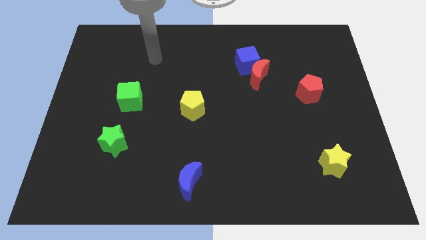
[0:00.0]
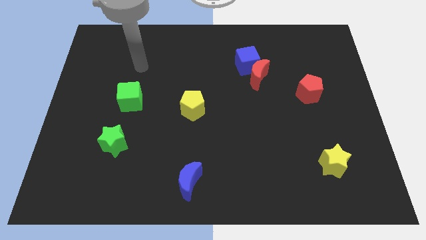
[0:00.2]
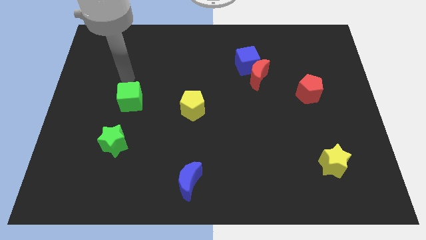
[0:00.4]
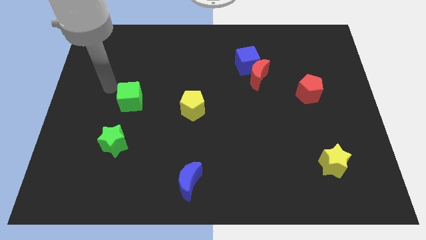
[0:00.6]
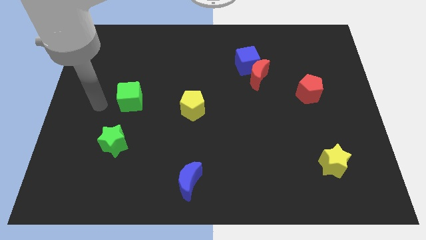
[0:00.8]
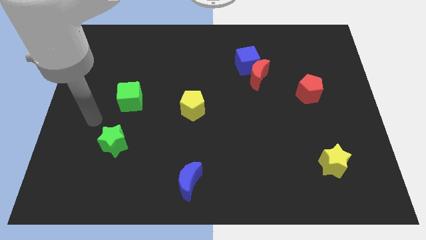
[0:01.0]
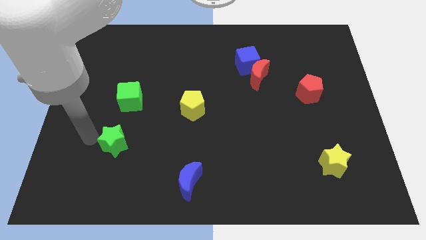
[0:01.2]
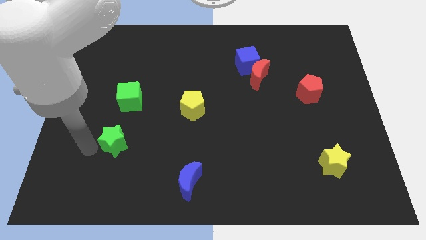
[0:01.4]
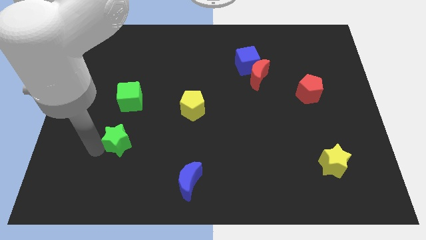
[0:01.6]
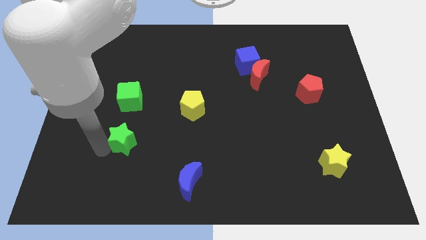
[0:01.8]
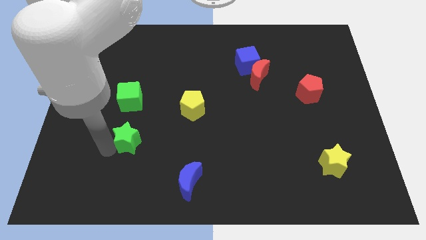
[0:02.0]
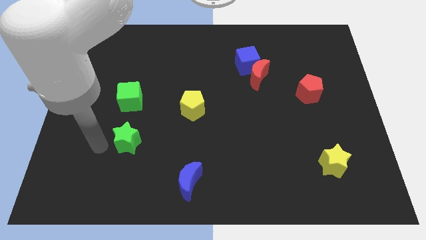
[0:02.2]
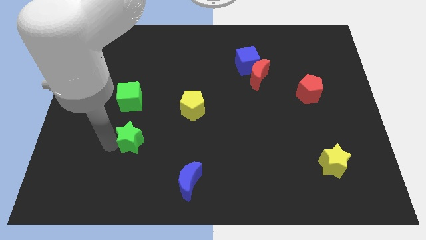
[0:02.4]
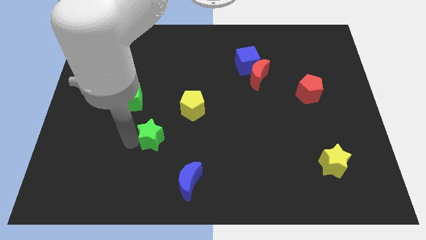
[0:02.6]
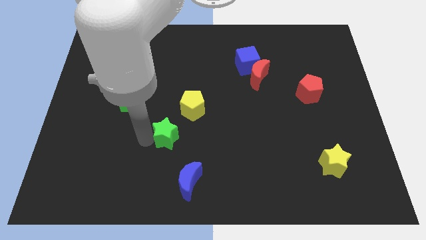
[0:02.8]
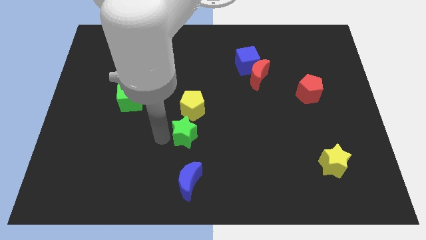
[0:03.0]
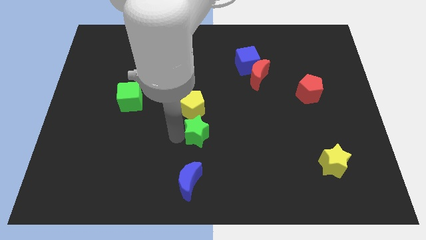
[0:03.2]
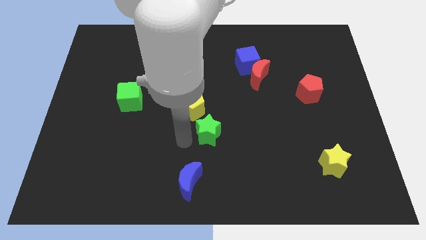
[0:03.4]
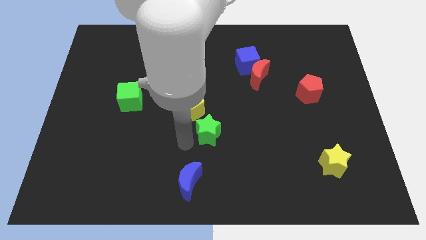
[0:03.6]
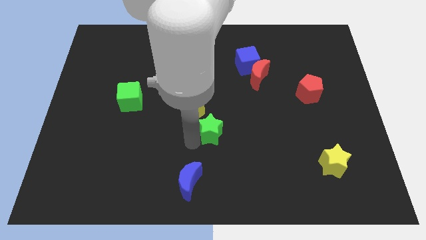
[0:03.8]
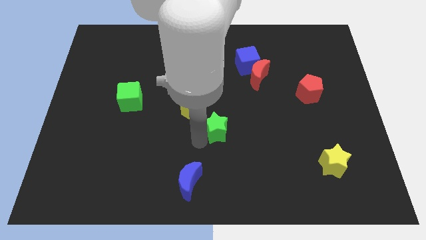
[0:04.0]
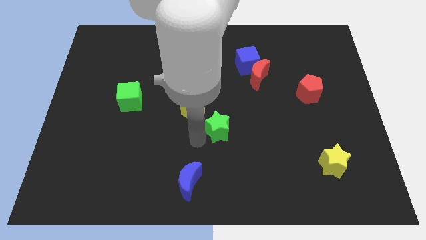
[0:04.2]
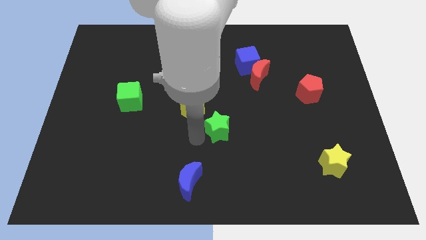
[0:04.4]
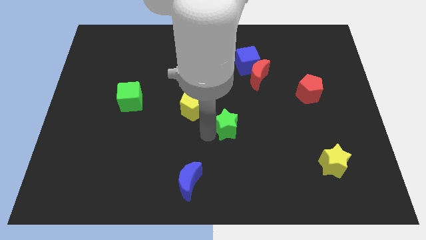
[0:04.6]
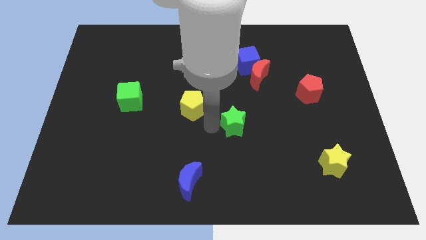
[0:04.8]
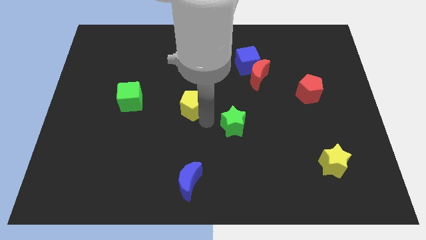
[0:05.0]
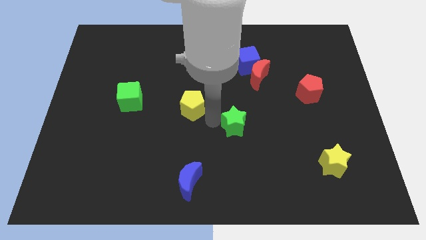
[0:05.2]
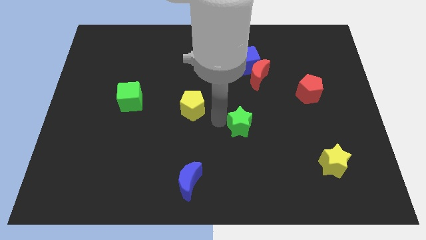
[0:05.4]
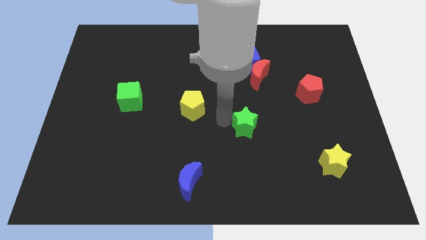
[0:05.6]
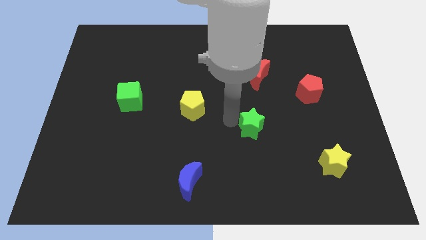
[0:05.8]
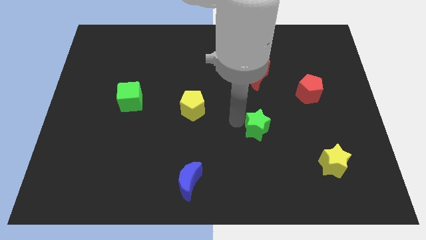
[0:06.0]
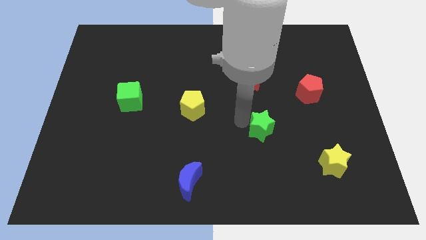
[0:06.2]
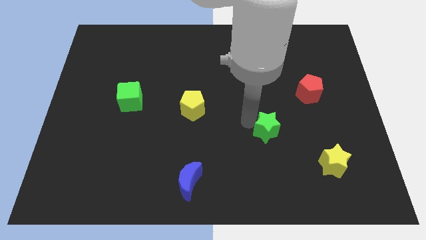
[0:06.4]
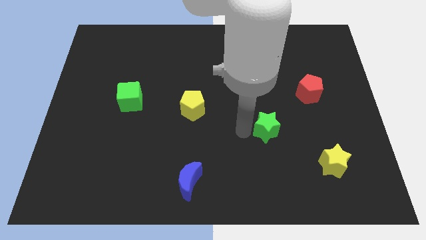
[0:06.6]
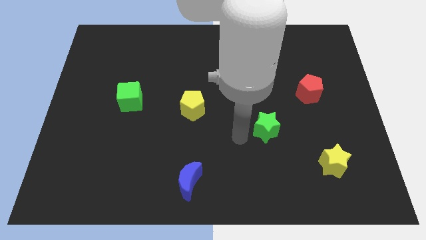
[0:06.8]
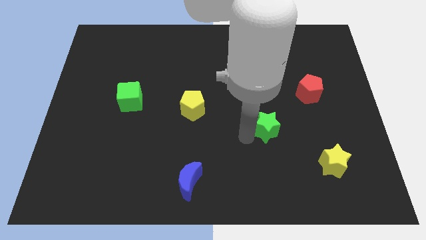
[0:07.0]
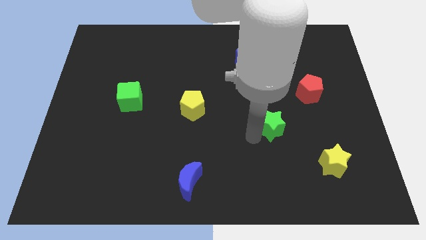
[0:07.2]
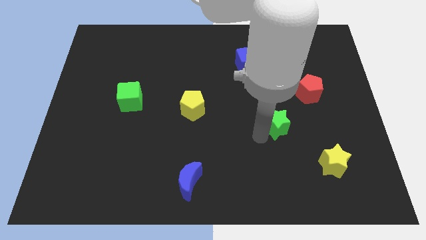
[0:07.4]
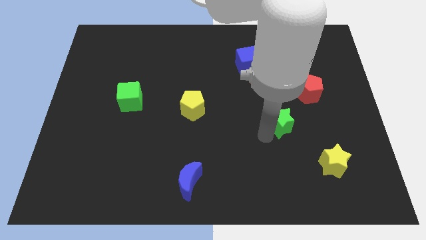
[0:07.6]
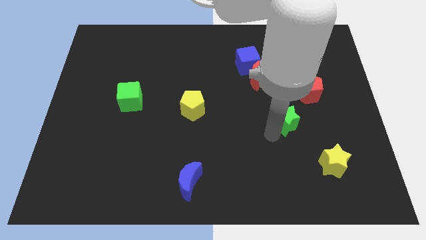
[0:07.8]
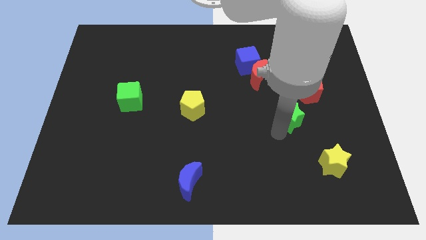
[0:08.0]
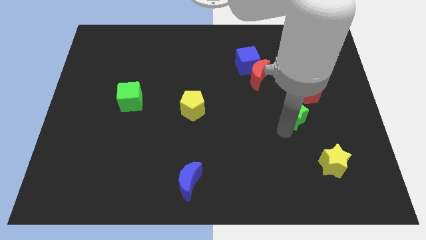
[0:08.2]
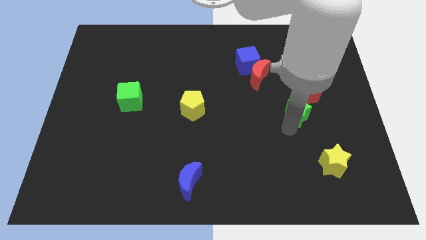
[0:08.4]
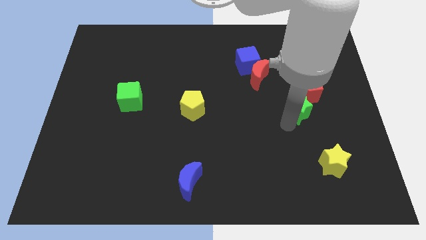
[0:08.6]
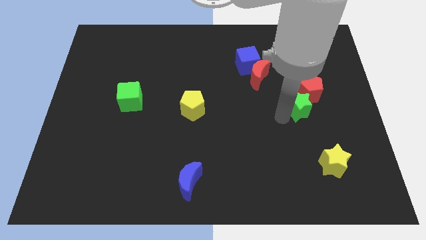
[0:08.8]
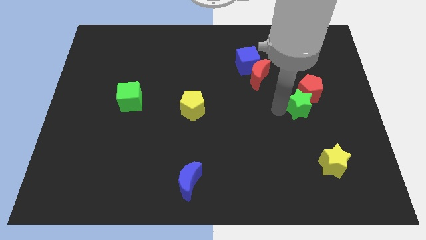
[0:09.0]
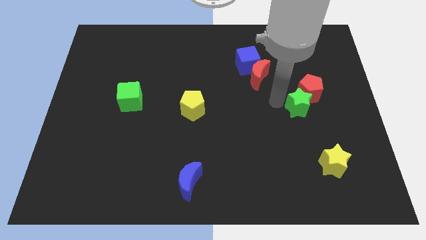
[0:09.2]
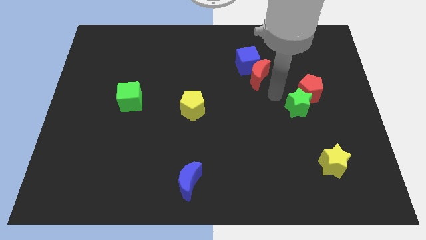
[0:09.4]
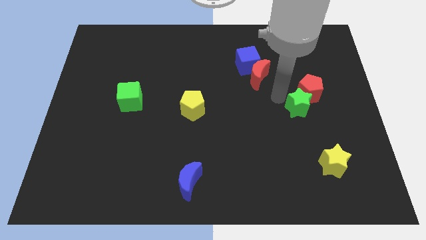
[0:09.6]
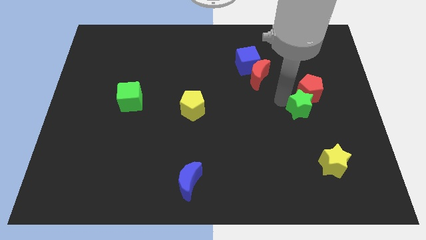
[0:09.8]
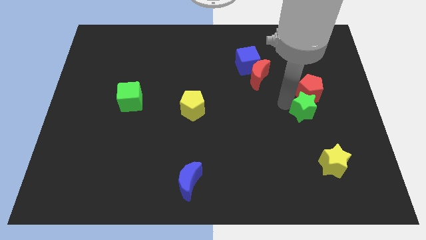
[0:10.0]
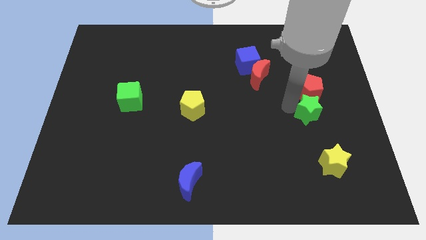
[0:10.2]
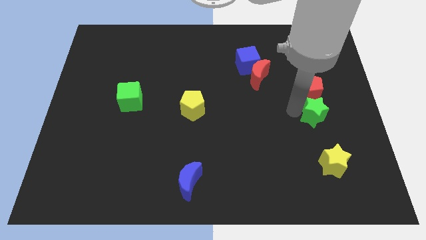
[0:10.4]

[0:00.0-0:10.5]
push the green star to the bottom right side of the red pentagon

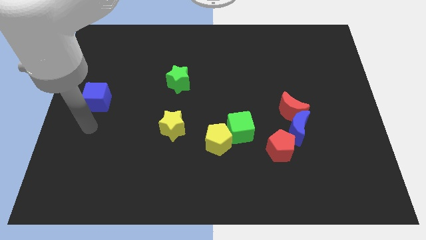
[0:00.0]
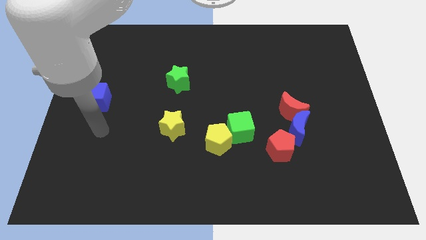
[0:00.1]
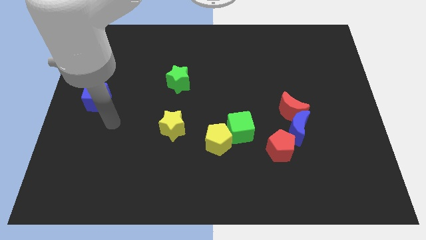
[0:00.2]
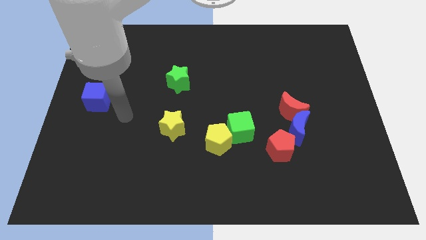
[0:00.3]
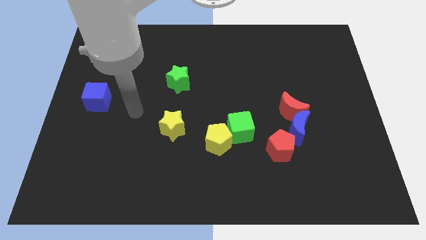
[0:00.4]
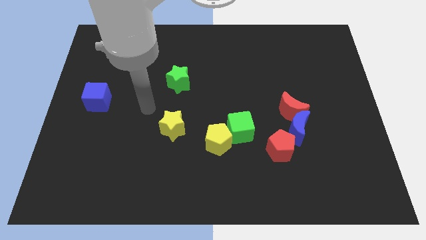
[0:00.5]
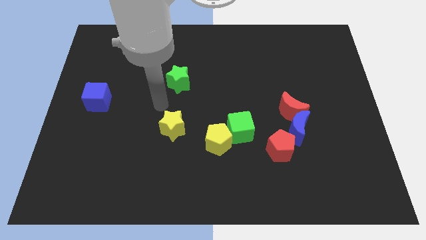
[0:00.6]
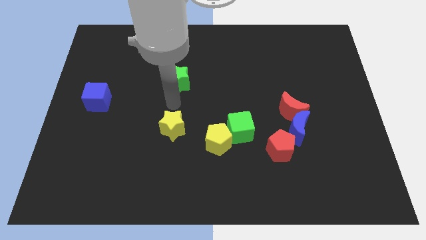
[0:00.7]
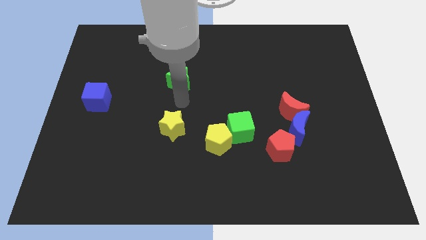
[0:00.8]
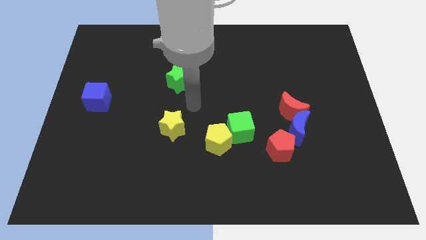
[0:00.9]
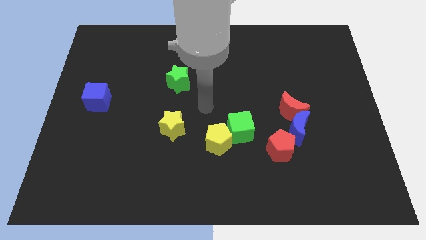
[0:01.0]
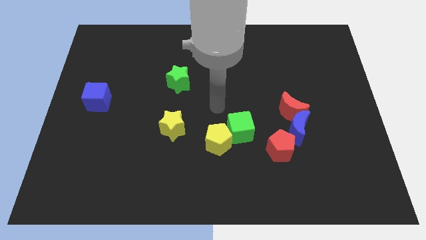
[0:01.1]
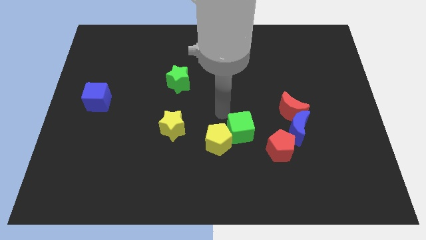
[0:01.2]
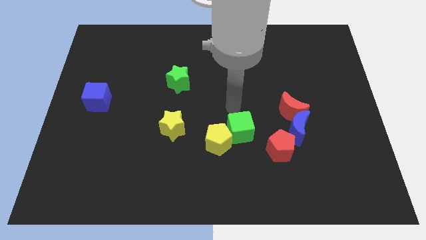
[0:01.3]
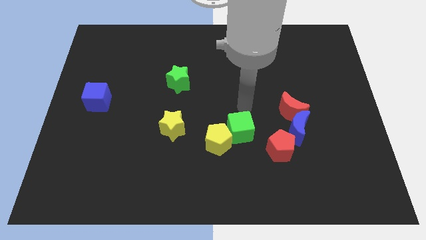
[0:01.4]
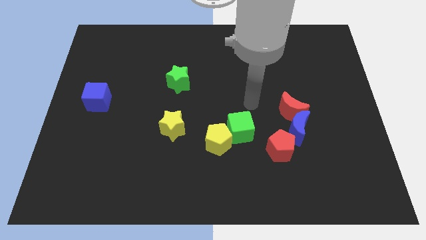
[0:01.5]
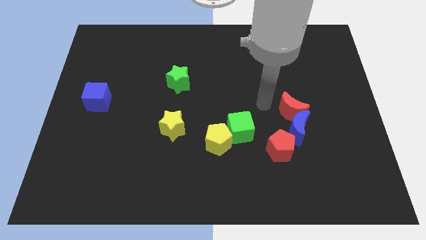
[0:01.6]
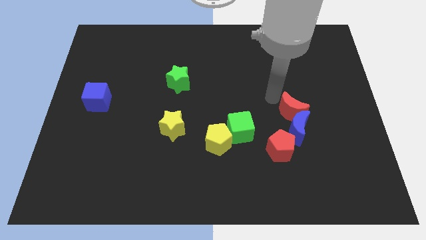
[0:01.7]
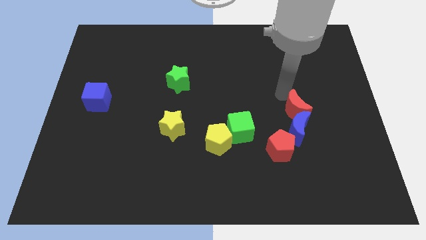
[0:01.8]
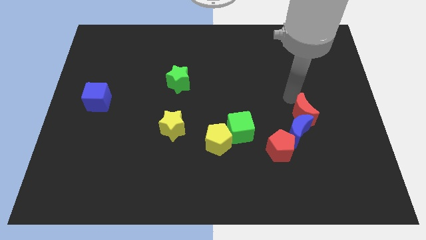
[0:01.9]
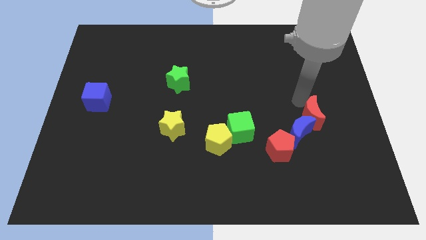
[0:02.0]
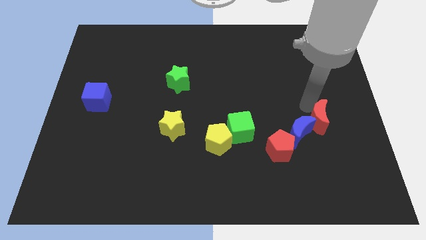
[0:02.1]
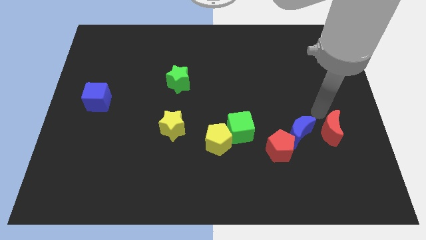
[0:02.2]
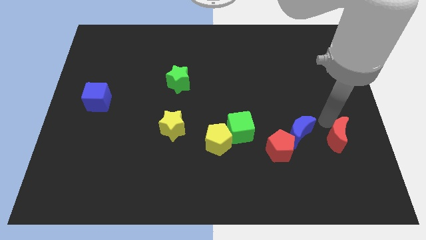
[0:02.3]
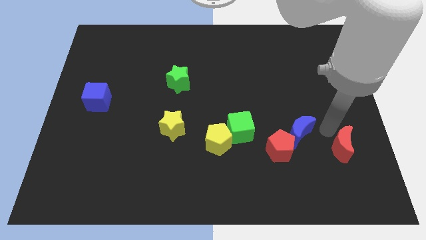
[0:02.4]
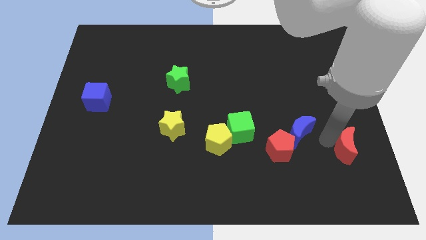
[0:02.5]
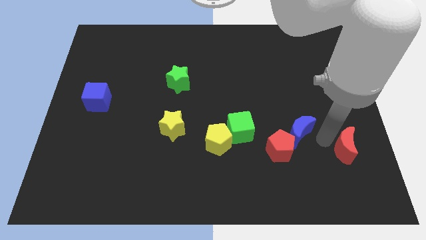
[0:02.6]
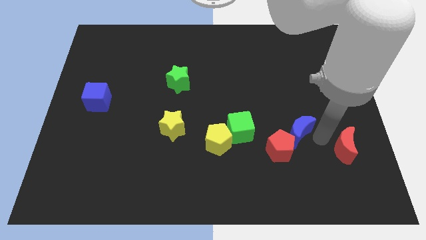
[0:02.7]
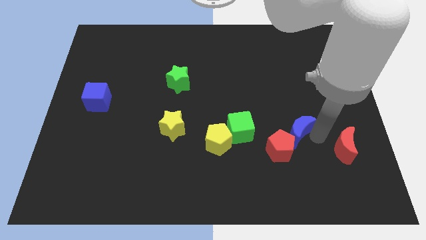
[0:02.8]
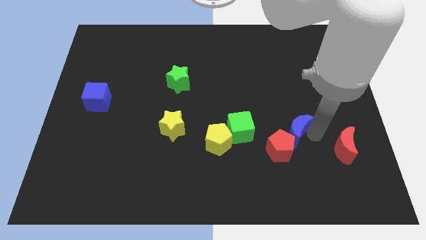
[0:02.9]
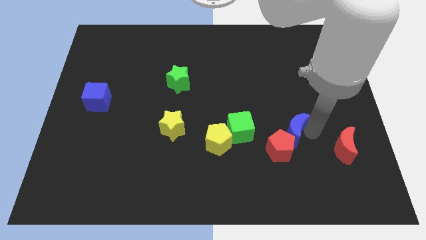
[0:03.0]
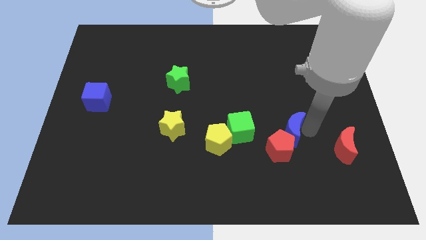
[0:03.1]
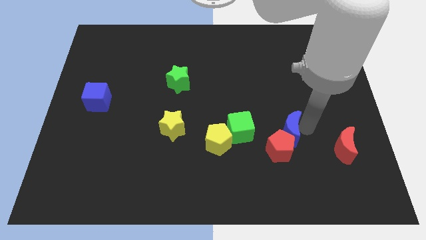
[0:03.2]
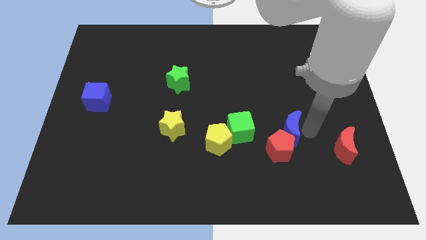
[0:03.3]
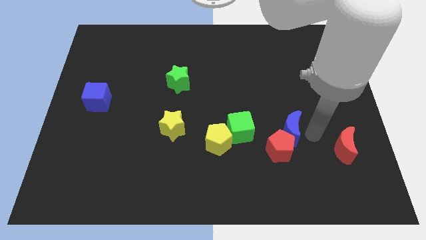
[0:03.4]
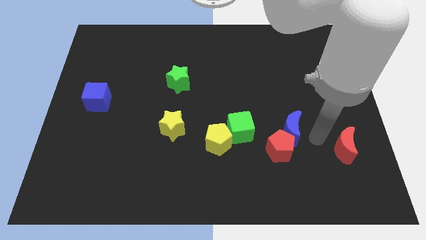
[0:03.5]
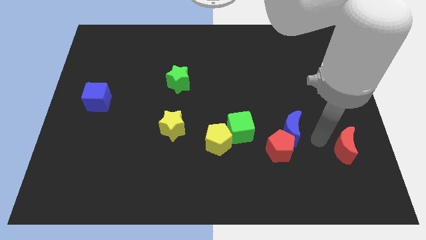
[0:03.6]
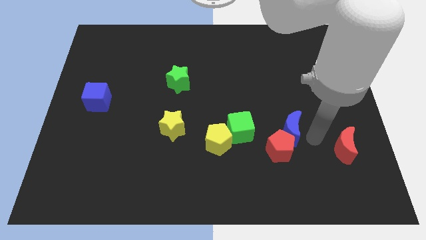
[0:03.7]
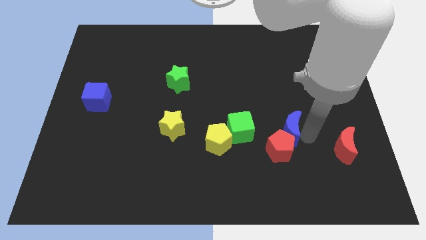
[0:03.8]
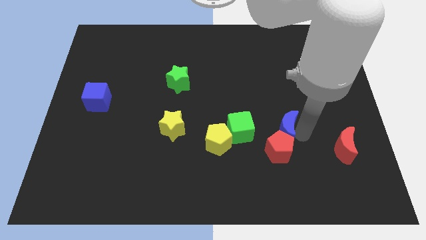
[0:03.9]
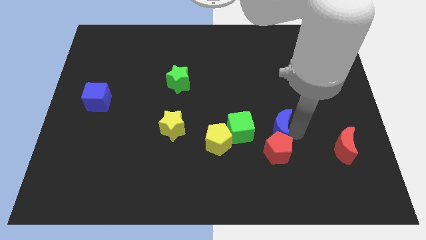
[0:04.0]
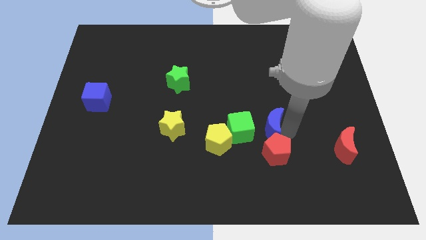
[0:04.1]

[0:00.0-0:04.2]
slide the blue moon to the top right of the green cube
